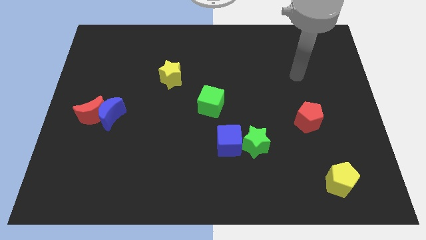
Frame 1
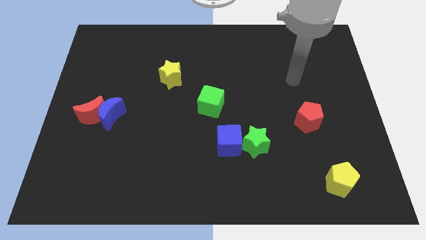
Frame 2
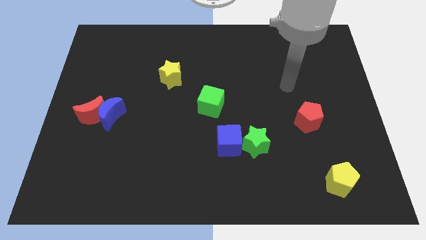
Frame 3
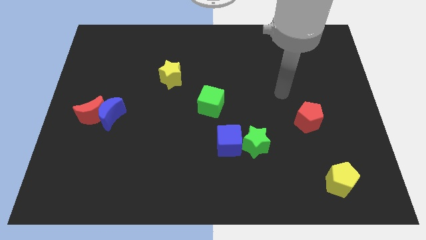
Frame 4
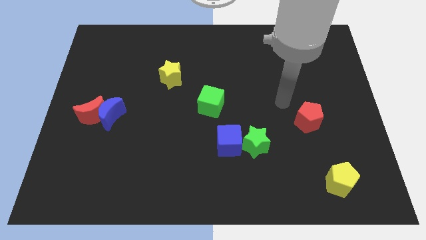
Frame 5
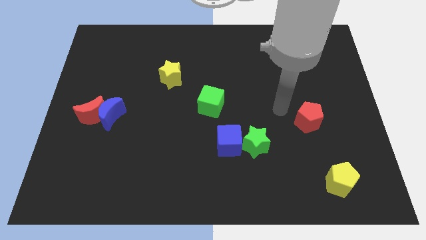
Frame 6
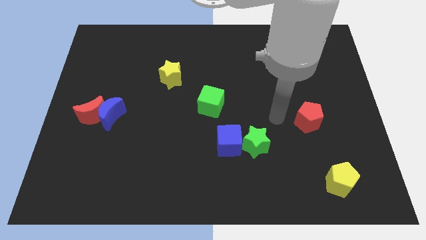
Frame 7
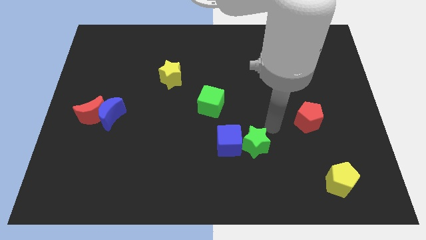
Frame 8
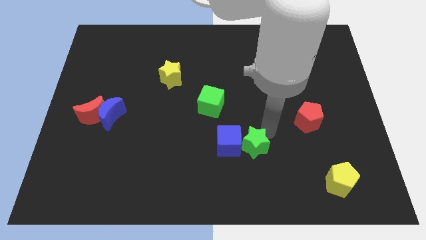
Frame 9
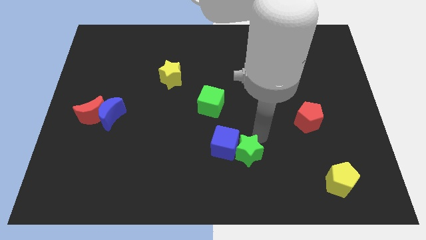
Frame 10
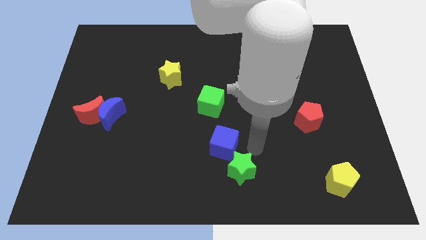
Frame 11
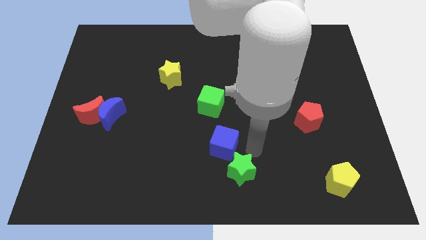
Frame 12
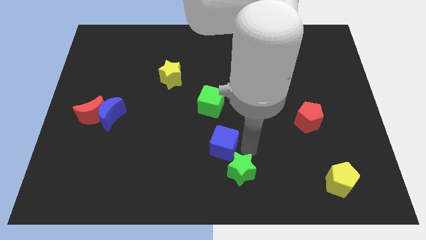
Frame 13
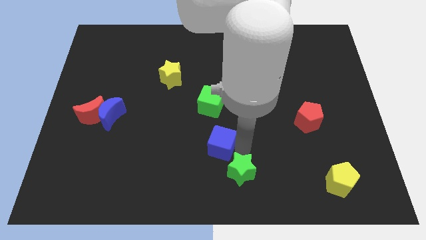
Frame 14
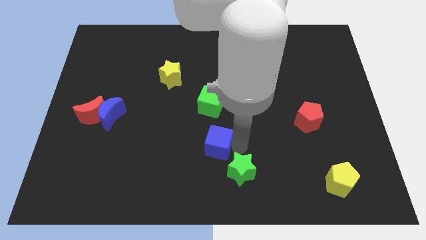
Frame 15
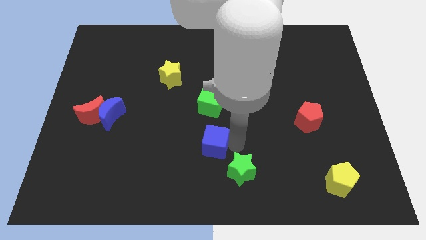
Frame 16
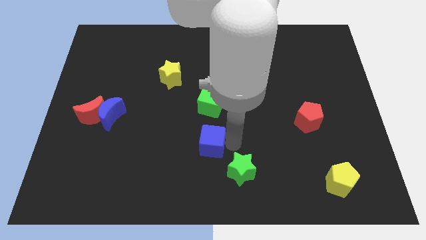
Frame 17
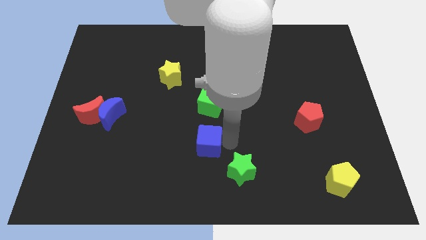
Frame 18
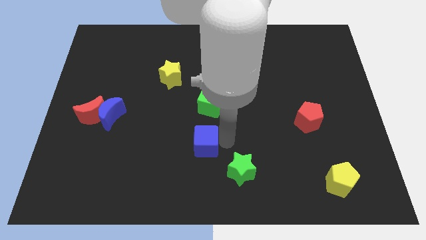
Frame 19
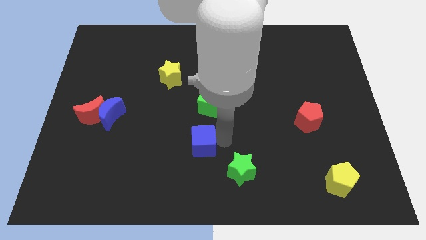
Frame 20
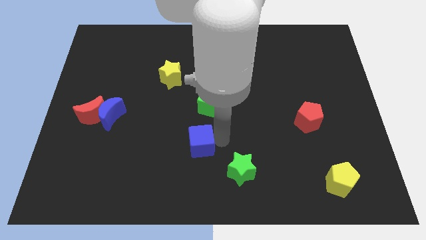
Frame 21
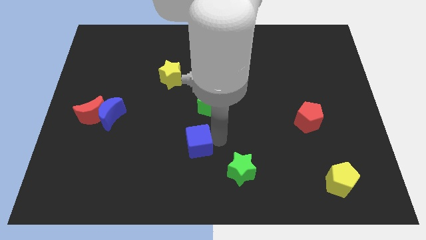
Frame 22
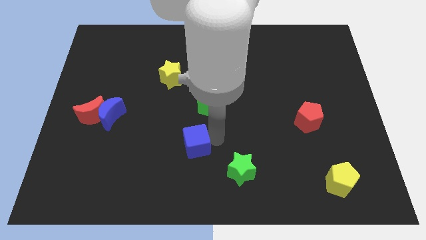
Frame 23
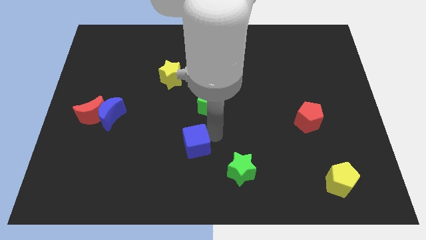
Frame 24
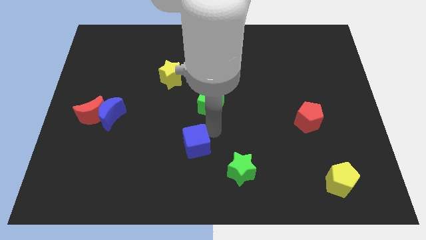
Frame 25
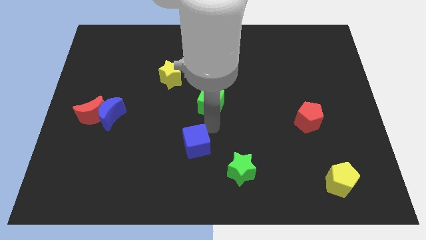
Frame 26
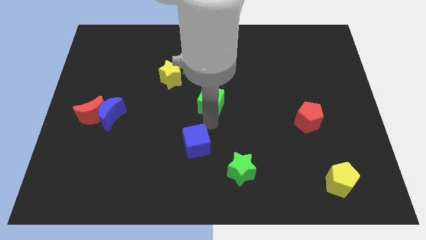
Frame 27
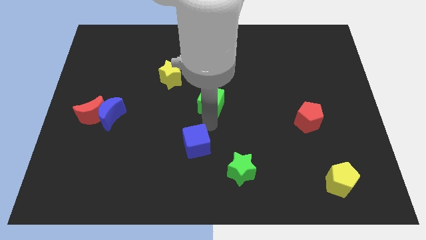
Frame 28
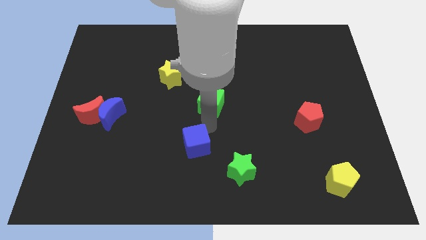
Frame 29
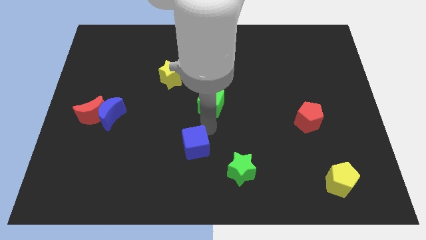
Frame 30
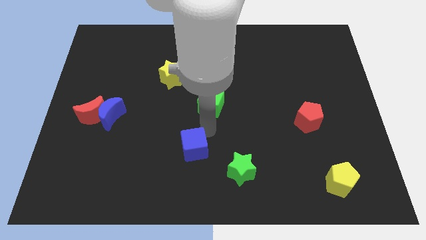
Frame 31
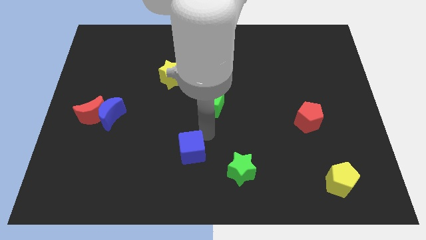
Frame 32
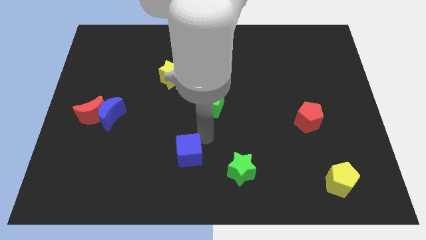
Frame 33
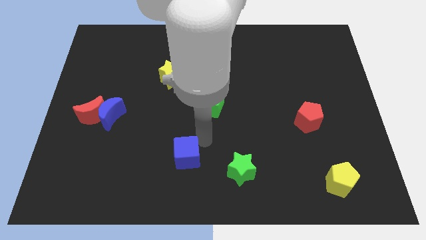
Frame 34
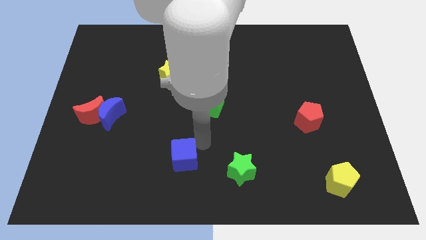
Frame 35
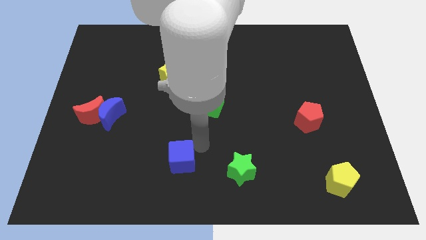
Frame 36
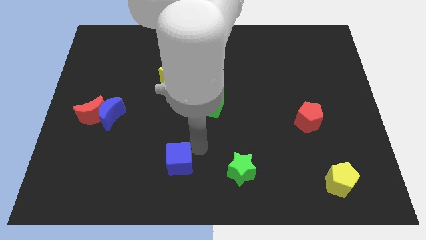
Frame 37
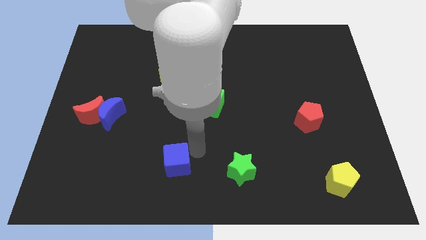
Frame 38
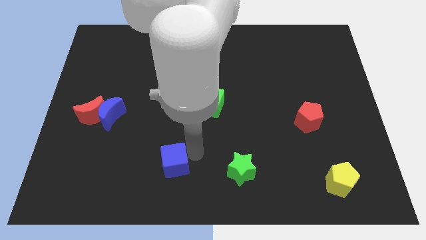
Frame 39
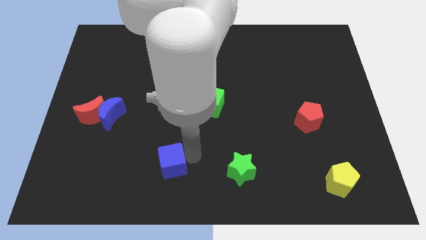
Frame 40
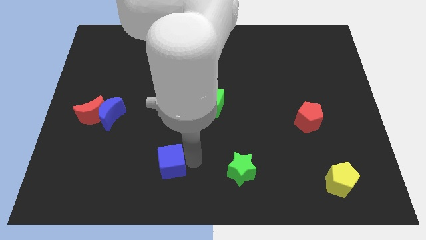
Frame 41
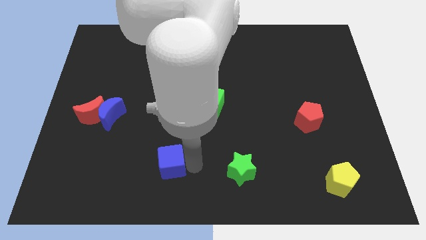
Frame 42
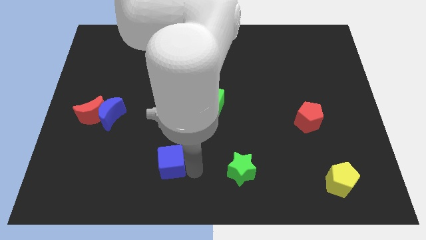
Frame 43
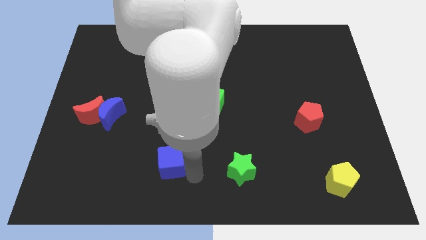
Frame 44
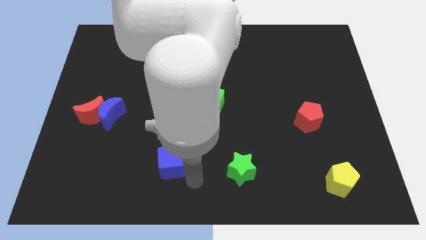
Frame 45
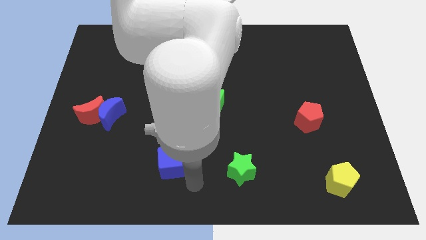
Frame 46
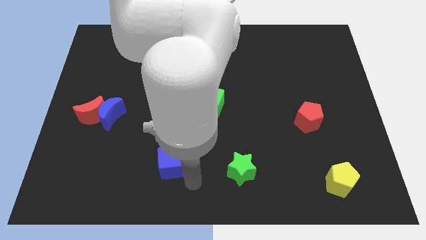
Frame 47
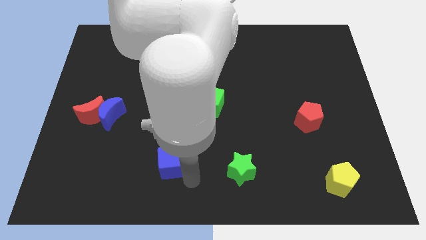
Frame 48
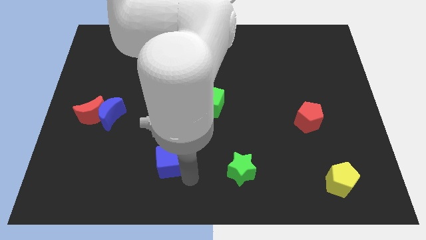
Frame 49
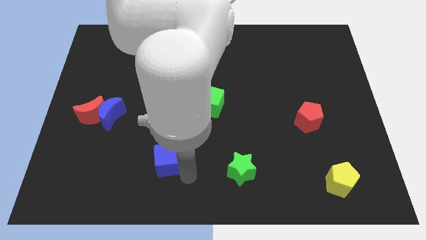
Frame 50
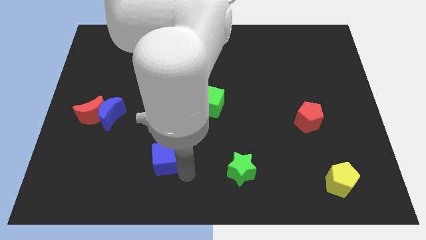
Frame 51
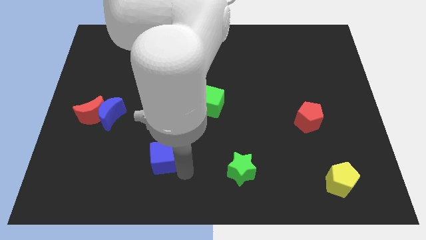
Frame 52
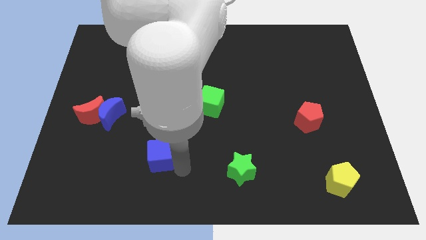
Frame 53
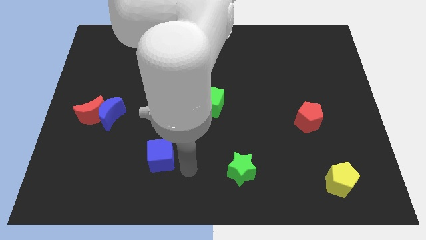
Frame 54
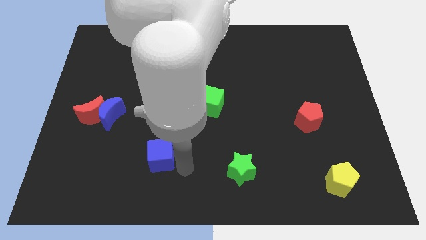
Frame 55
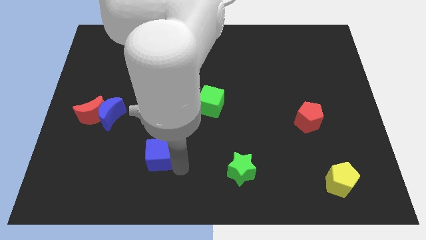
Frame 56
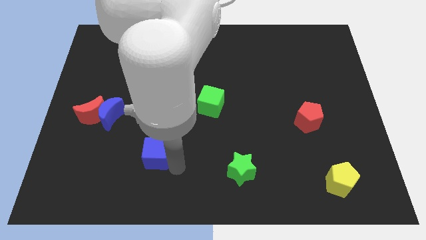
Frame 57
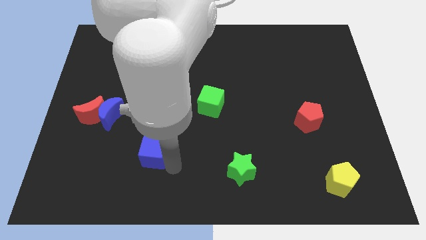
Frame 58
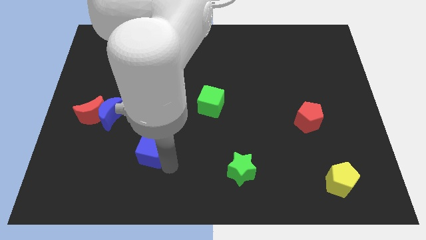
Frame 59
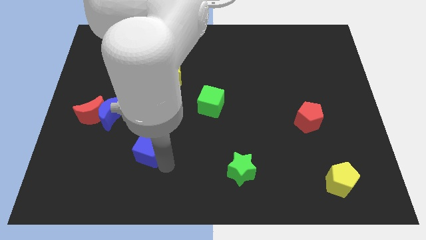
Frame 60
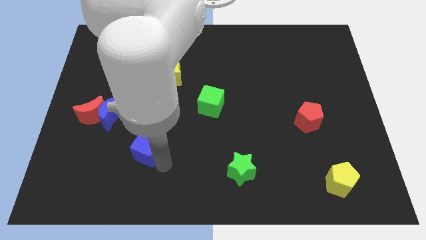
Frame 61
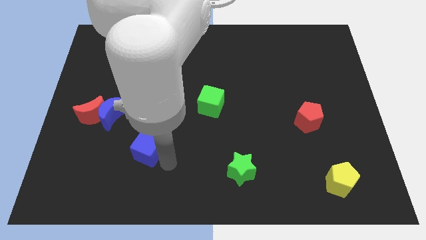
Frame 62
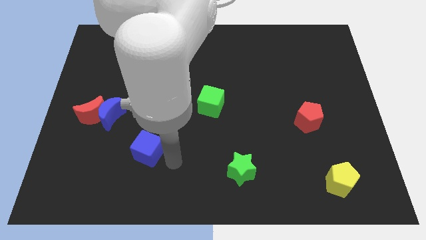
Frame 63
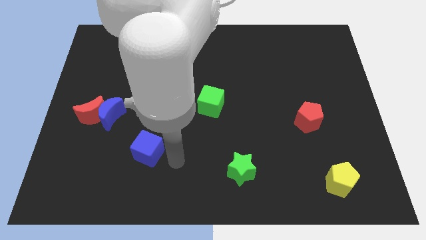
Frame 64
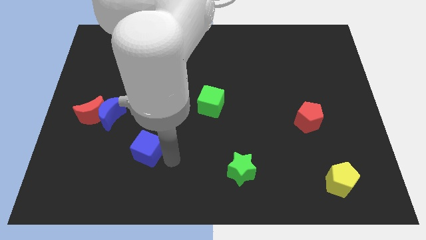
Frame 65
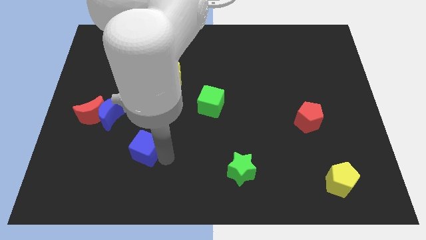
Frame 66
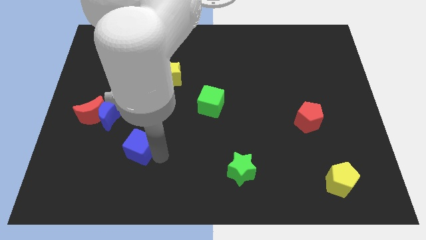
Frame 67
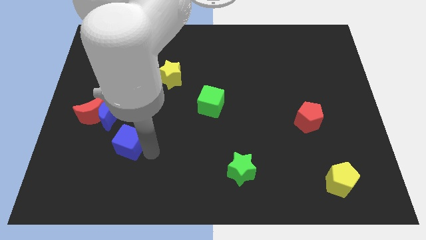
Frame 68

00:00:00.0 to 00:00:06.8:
slide the blue cube left

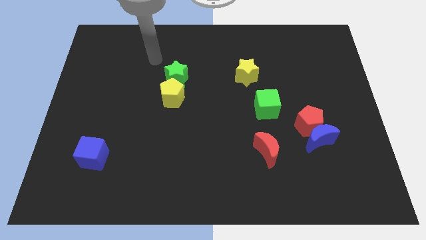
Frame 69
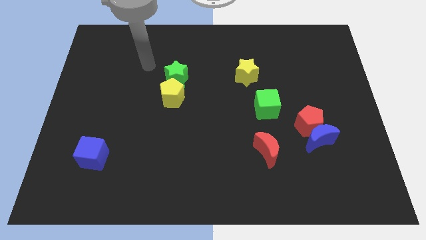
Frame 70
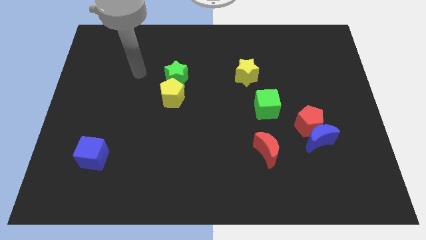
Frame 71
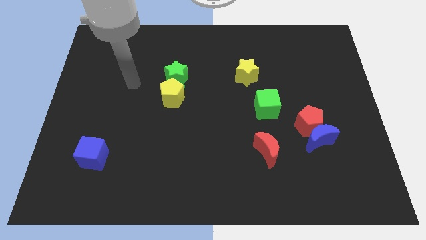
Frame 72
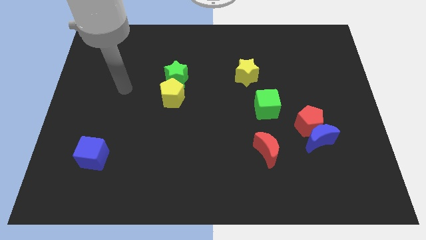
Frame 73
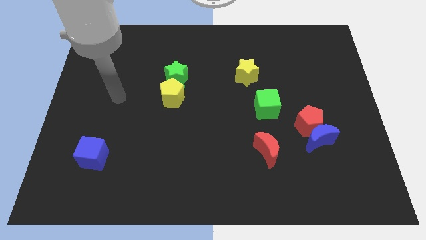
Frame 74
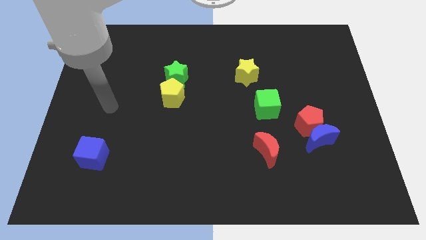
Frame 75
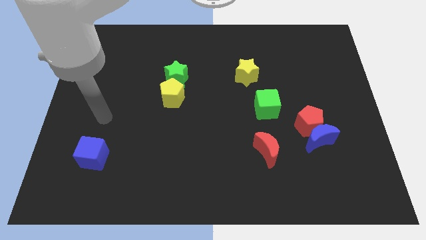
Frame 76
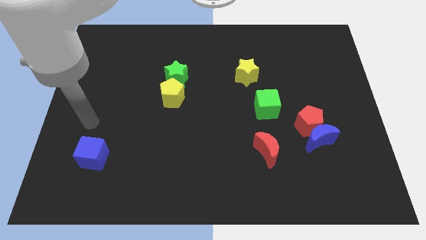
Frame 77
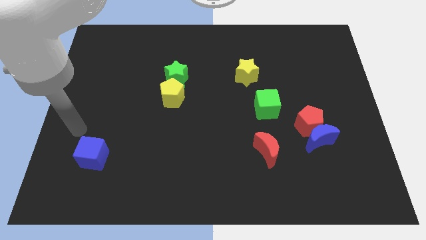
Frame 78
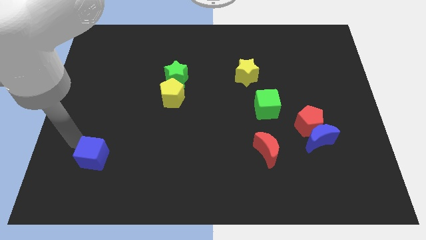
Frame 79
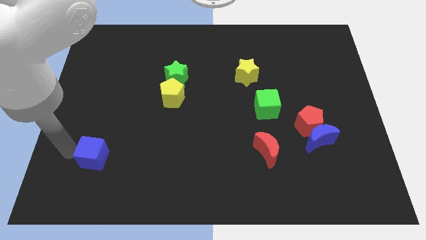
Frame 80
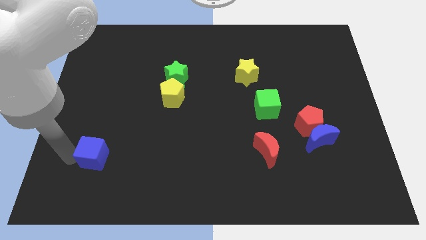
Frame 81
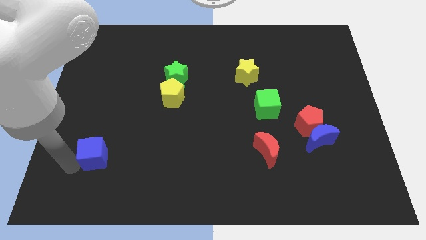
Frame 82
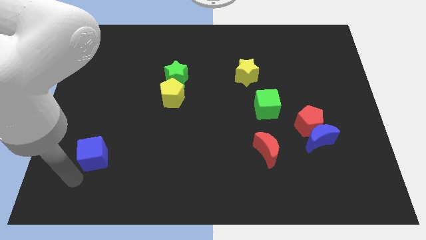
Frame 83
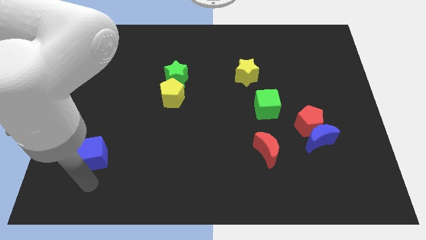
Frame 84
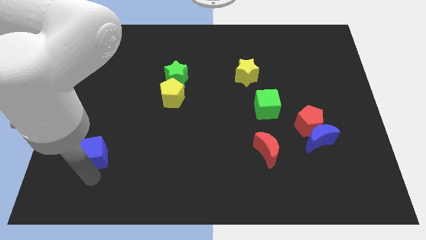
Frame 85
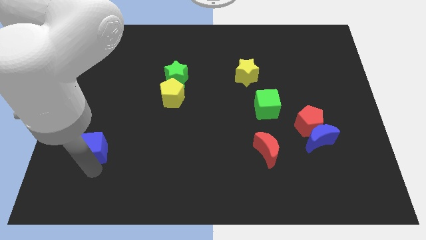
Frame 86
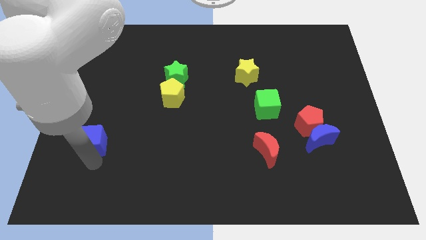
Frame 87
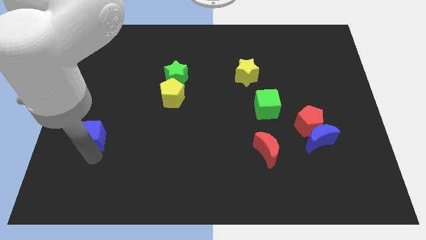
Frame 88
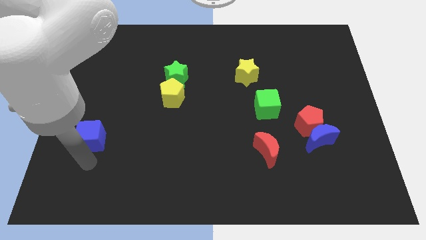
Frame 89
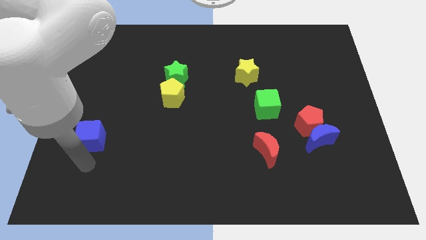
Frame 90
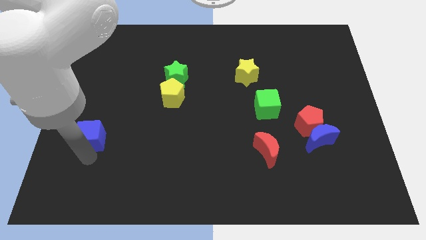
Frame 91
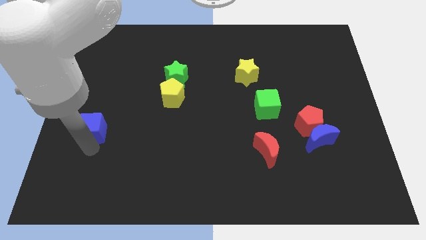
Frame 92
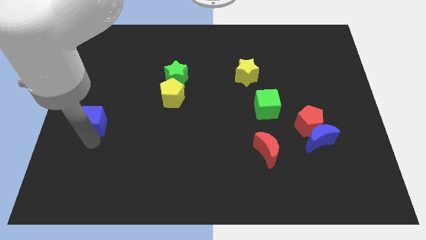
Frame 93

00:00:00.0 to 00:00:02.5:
slide the blue cube upwards somewhat
